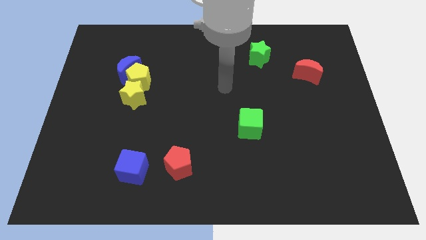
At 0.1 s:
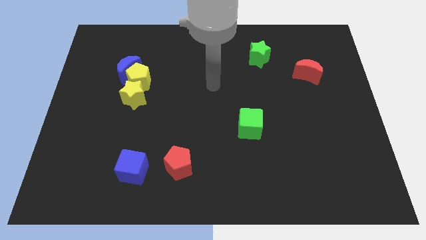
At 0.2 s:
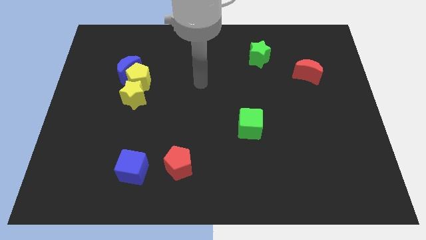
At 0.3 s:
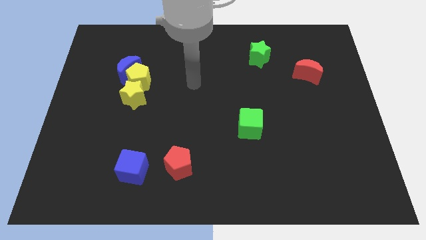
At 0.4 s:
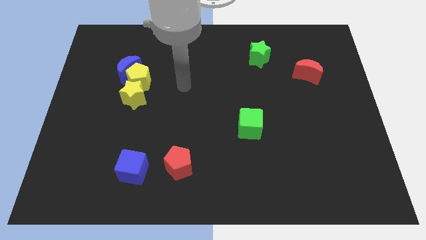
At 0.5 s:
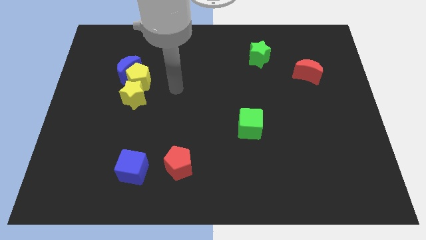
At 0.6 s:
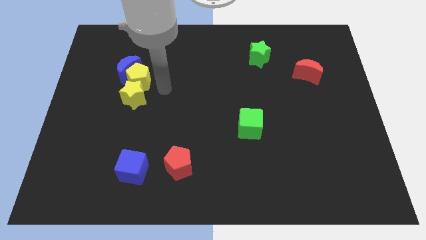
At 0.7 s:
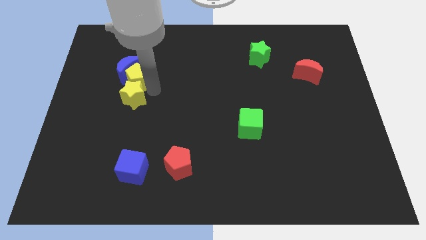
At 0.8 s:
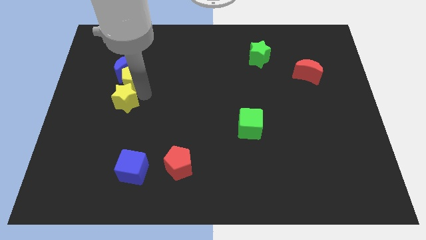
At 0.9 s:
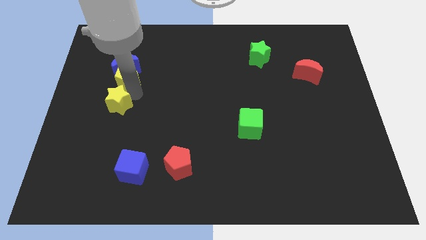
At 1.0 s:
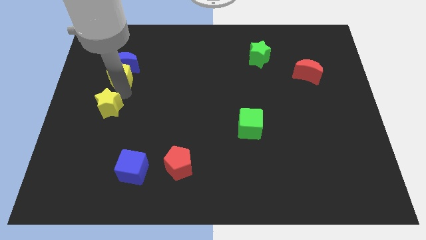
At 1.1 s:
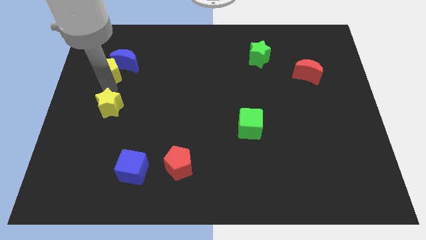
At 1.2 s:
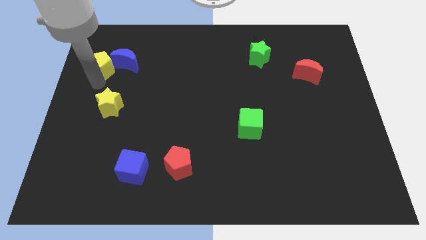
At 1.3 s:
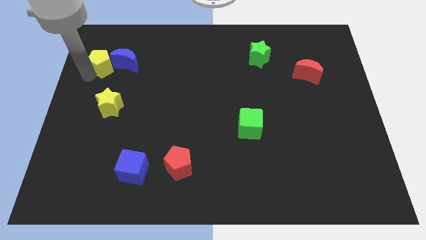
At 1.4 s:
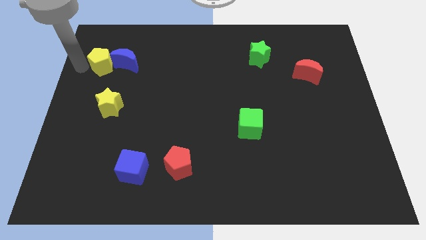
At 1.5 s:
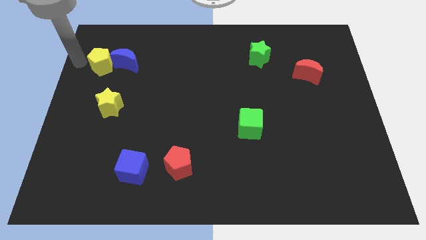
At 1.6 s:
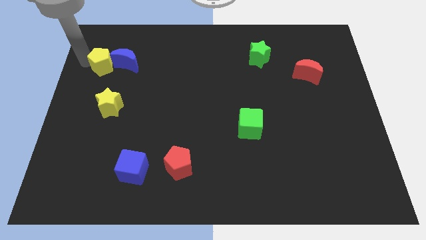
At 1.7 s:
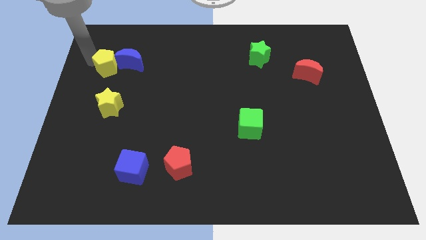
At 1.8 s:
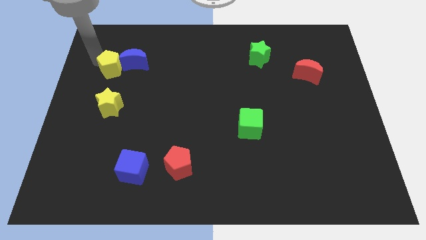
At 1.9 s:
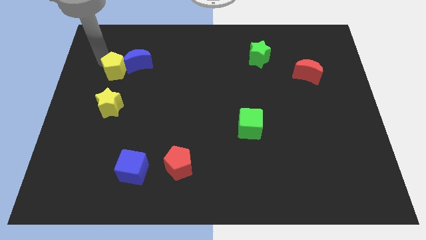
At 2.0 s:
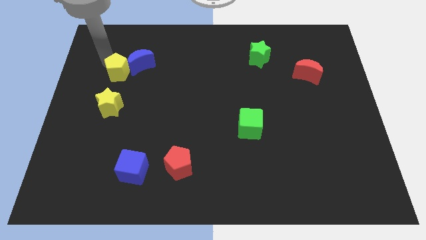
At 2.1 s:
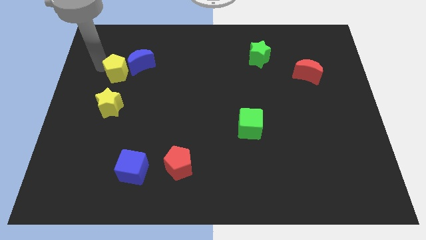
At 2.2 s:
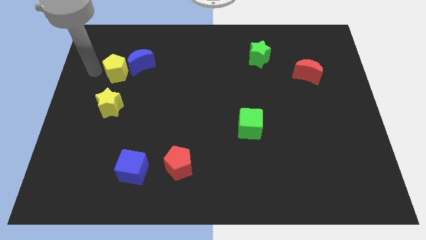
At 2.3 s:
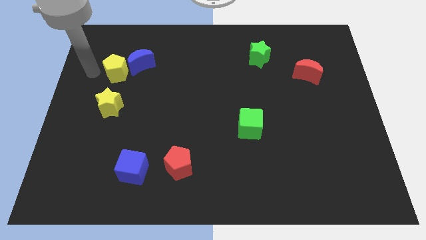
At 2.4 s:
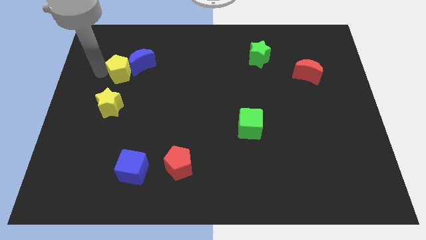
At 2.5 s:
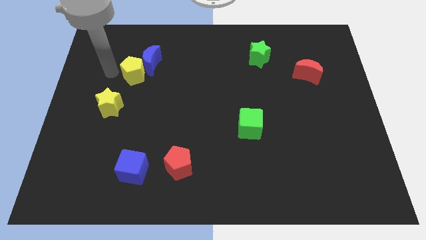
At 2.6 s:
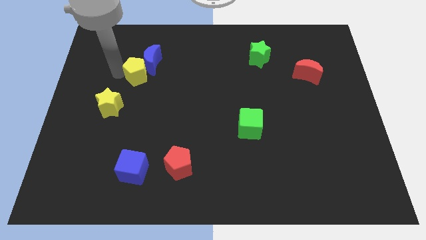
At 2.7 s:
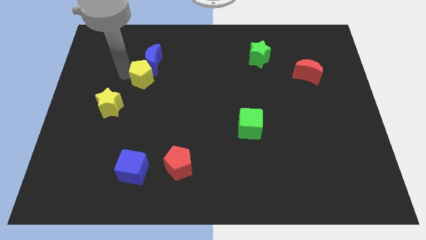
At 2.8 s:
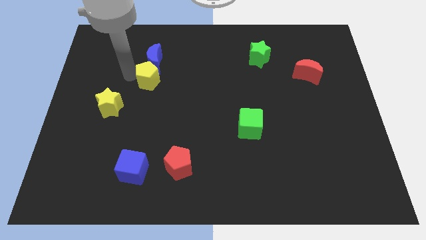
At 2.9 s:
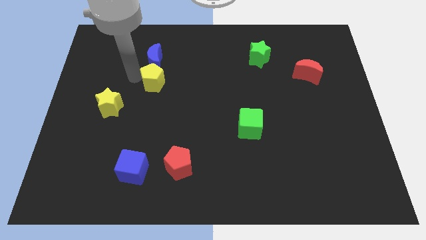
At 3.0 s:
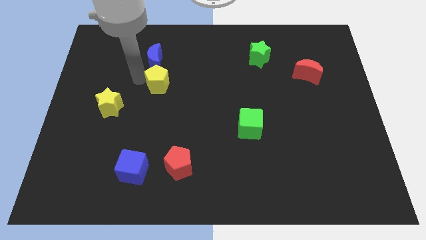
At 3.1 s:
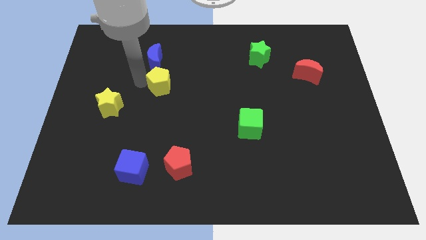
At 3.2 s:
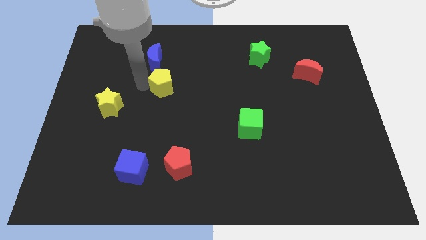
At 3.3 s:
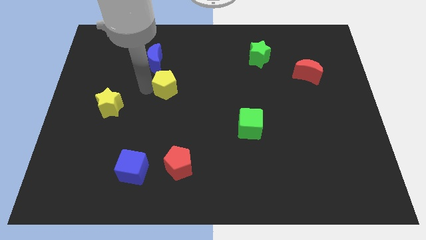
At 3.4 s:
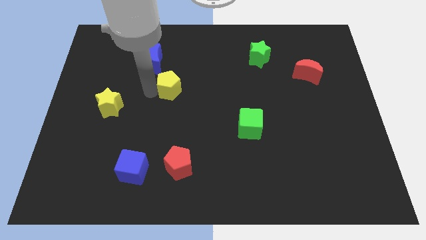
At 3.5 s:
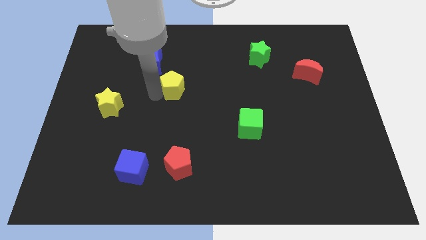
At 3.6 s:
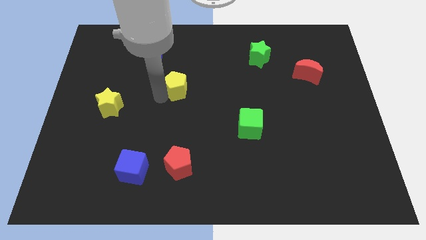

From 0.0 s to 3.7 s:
pull the yellow pentagon apart from the blue moon and yellow star

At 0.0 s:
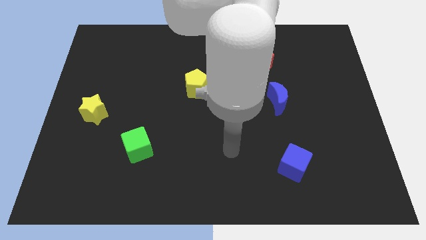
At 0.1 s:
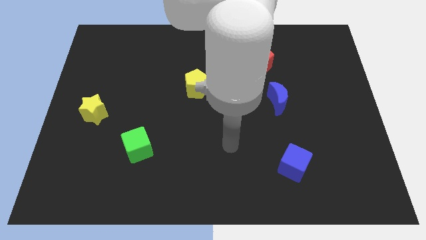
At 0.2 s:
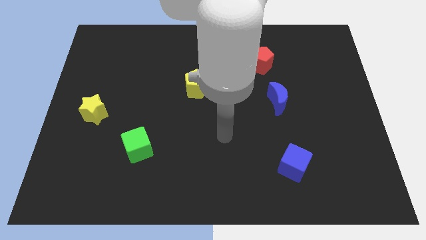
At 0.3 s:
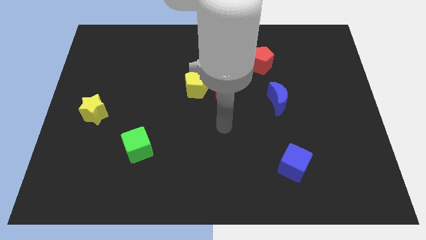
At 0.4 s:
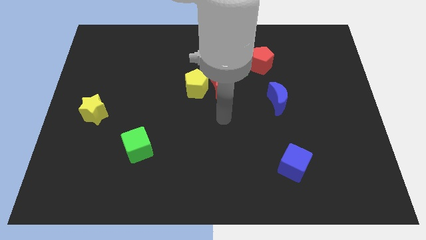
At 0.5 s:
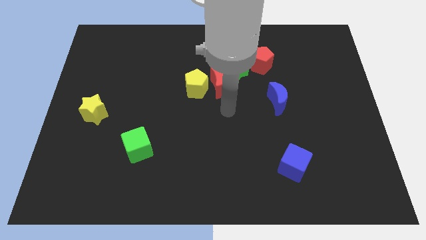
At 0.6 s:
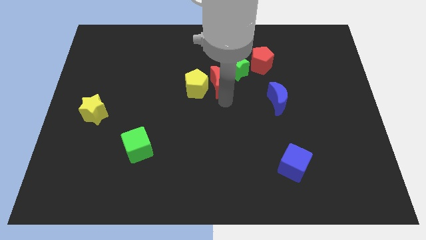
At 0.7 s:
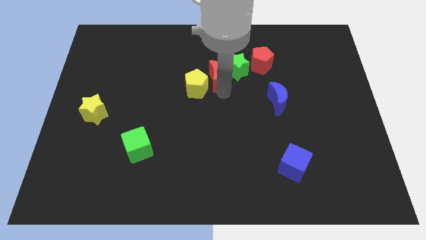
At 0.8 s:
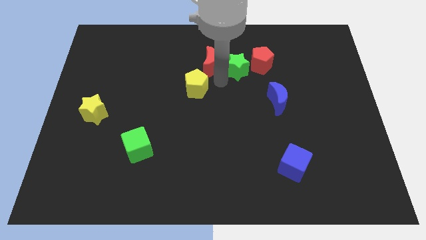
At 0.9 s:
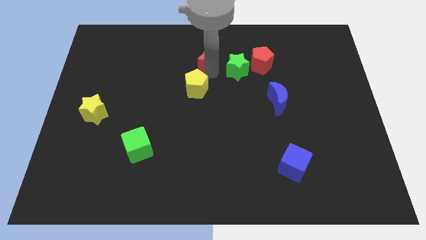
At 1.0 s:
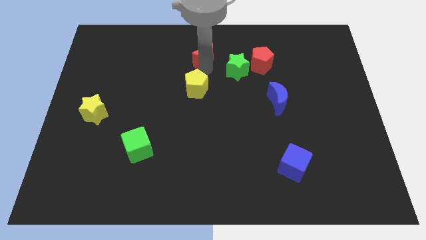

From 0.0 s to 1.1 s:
move the yellow pentagon away from the red moon

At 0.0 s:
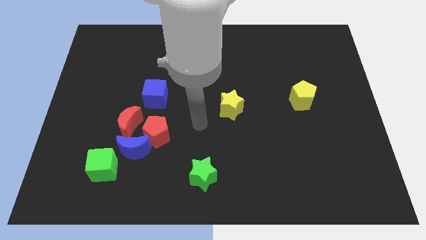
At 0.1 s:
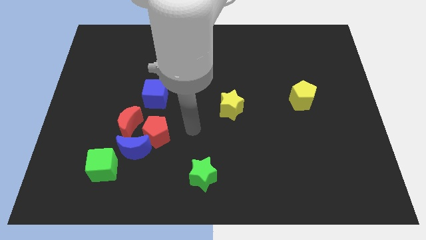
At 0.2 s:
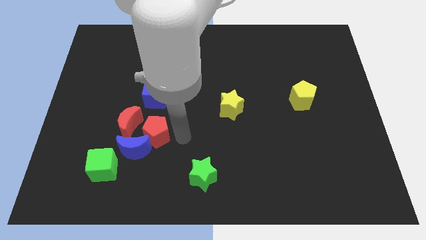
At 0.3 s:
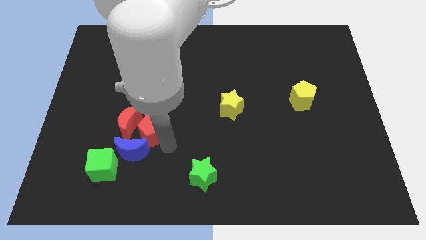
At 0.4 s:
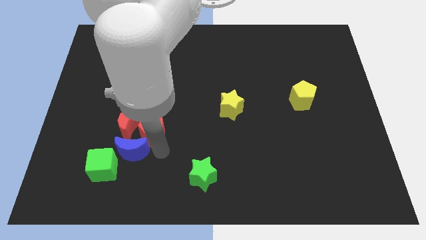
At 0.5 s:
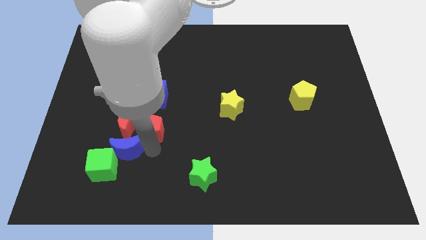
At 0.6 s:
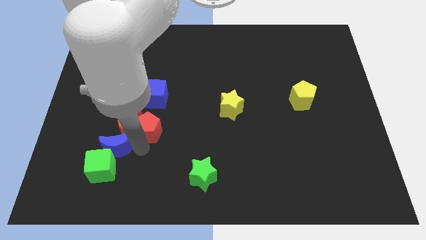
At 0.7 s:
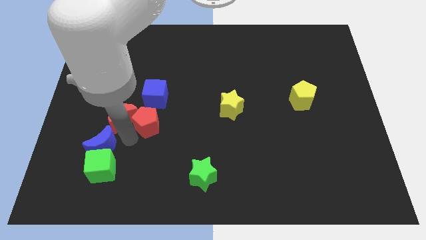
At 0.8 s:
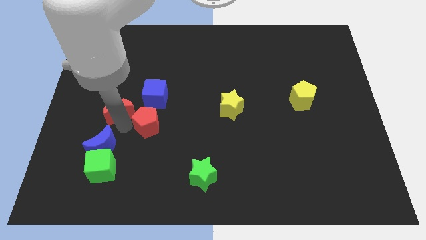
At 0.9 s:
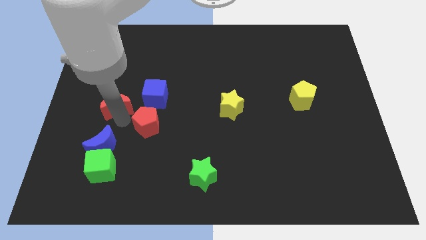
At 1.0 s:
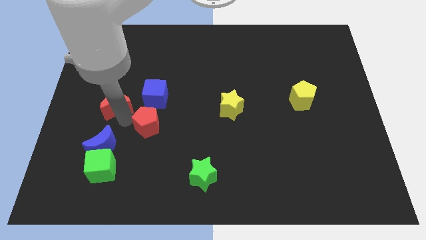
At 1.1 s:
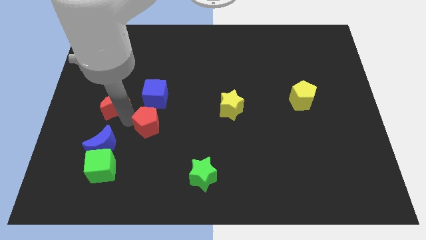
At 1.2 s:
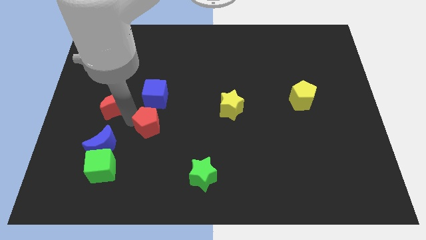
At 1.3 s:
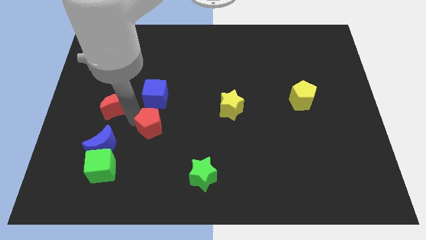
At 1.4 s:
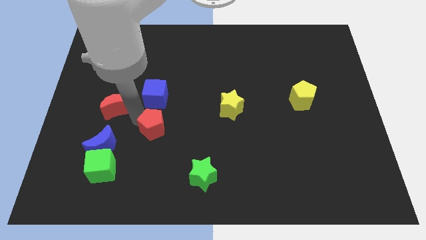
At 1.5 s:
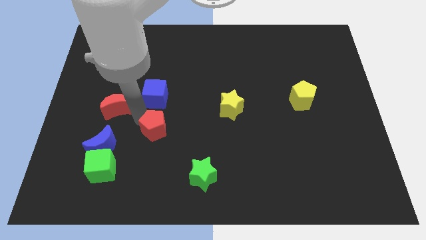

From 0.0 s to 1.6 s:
pull the red pentagon apart from the blue moon and red moon

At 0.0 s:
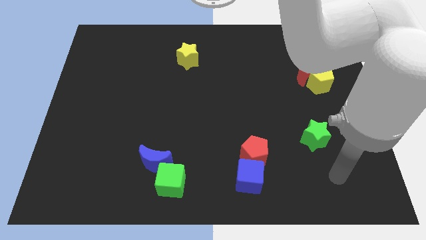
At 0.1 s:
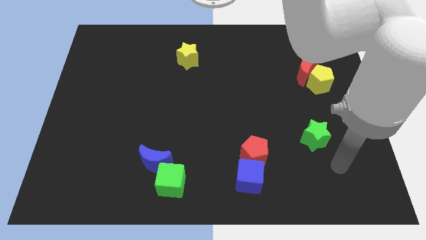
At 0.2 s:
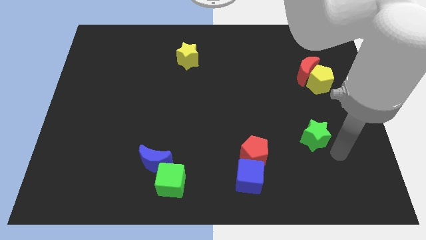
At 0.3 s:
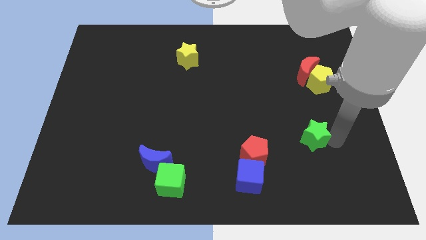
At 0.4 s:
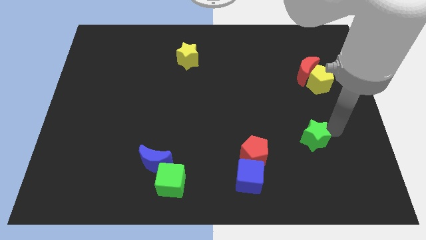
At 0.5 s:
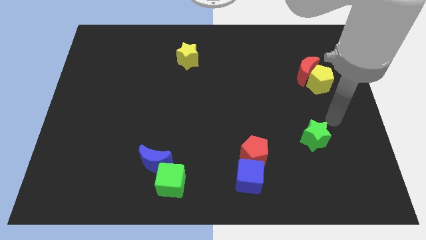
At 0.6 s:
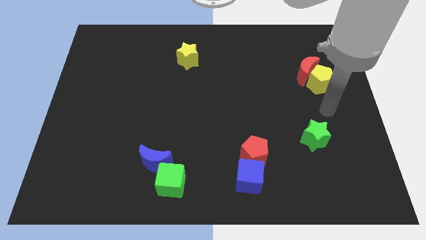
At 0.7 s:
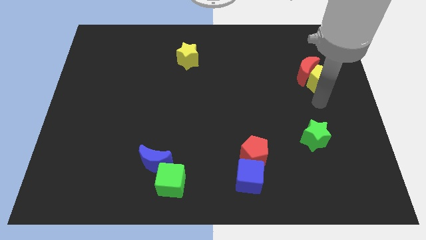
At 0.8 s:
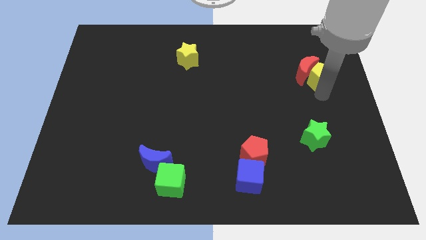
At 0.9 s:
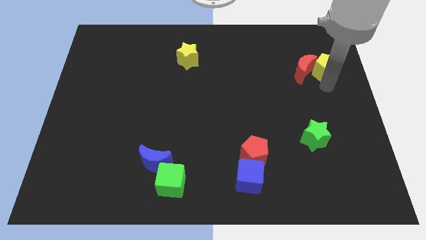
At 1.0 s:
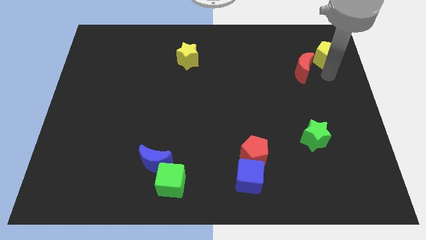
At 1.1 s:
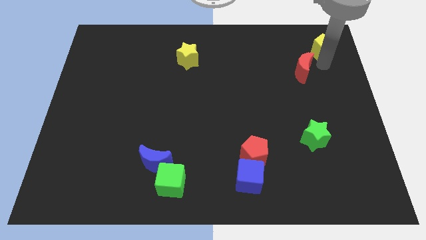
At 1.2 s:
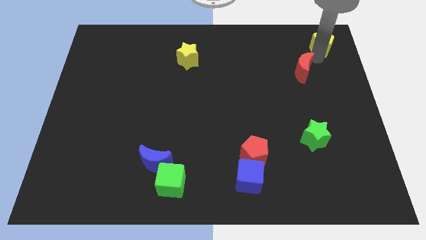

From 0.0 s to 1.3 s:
pull the red moon apart from the yellow pentagon

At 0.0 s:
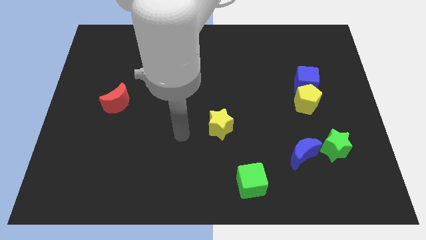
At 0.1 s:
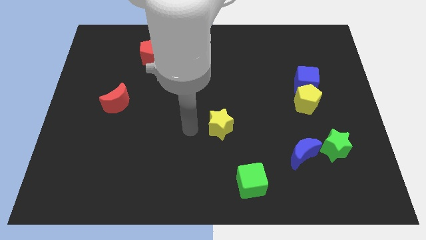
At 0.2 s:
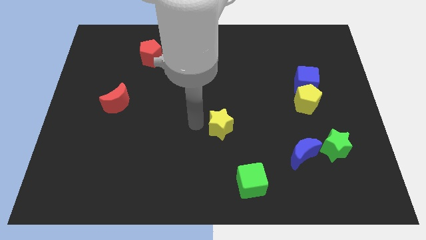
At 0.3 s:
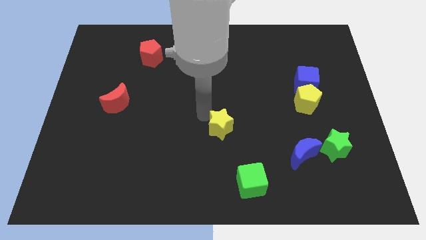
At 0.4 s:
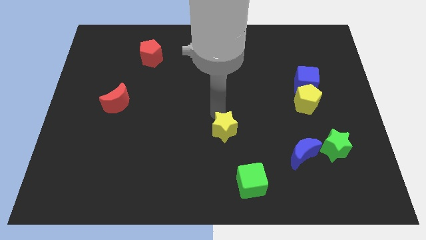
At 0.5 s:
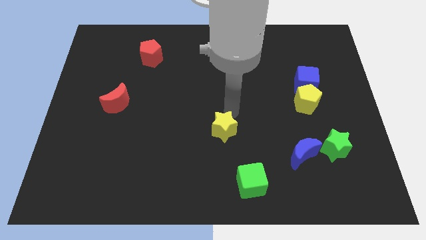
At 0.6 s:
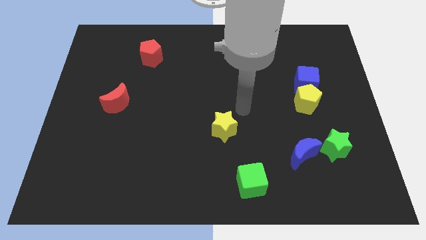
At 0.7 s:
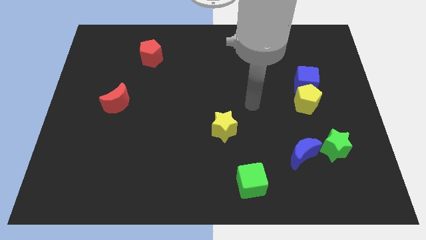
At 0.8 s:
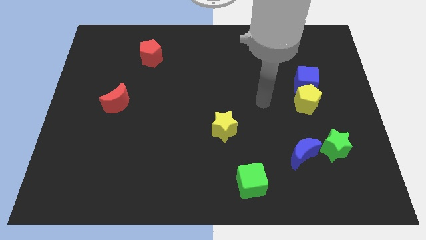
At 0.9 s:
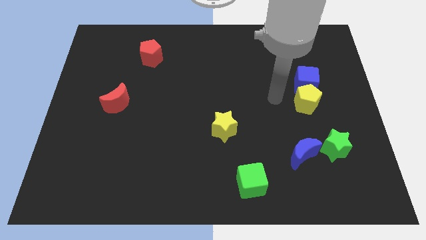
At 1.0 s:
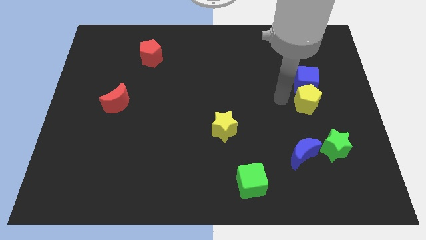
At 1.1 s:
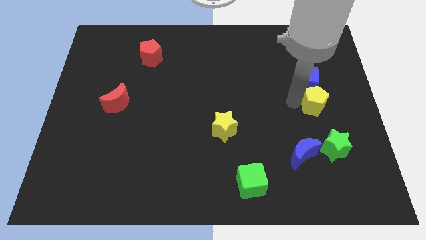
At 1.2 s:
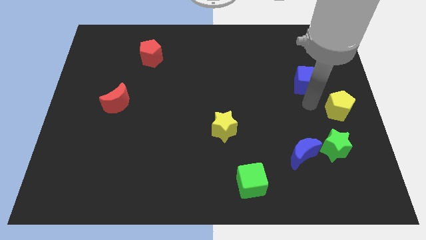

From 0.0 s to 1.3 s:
pull the blue cube apart from the yellow pentagon

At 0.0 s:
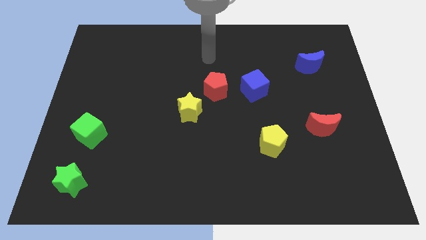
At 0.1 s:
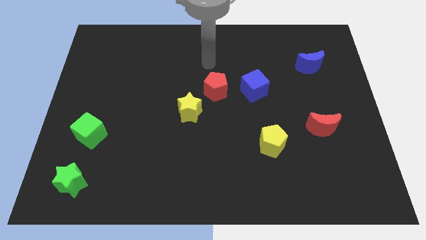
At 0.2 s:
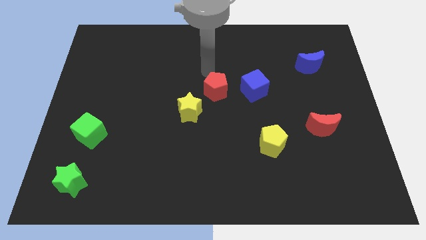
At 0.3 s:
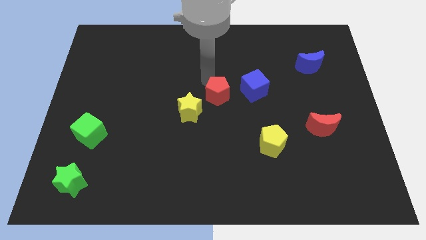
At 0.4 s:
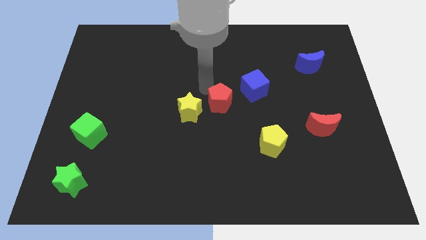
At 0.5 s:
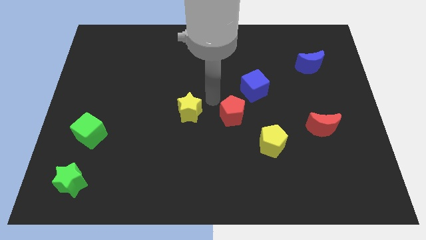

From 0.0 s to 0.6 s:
separate the yellow star from the red pentagon
